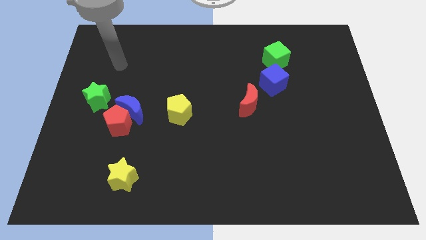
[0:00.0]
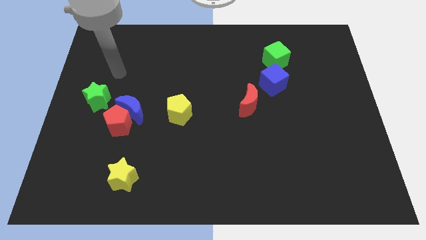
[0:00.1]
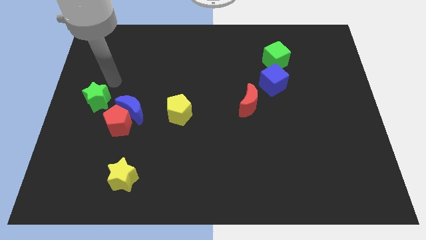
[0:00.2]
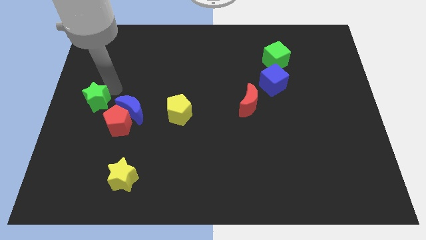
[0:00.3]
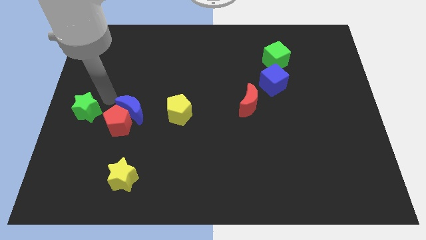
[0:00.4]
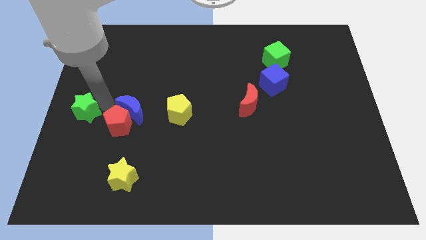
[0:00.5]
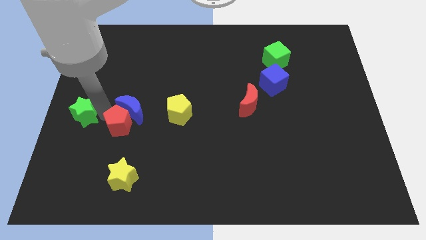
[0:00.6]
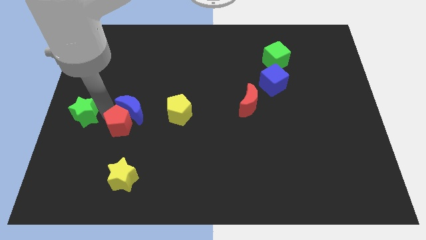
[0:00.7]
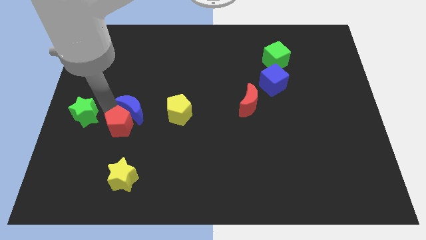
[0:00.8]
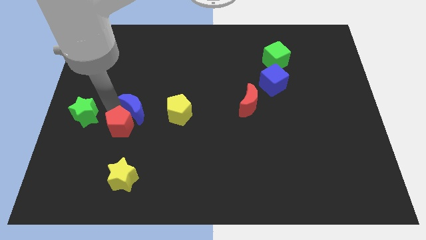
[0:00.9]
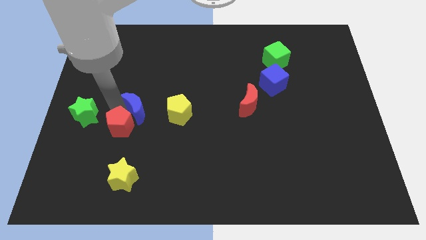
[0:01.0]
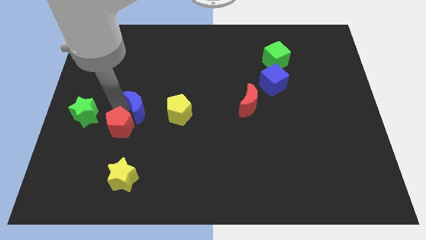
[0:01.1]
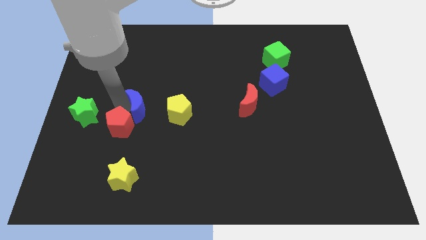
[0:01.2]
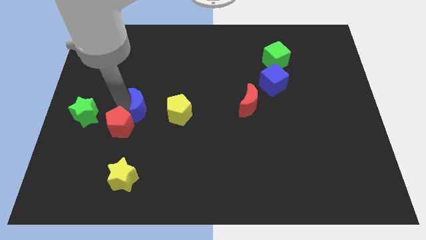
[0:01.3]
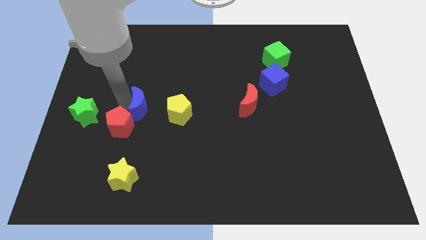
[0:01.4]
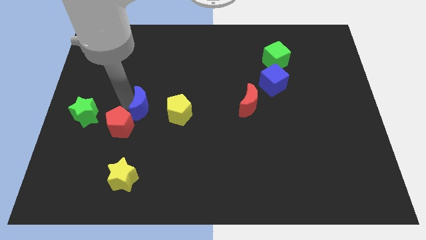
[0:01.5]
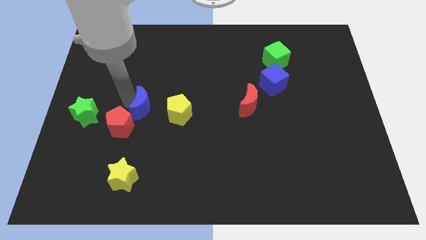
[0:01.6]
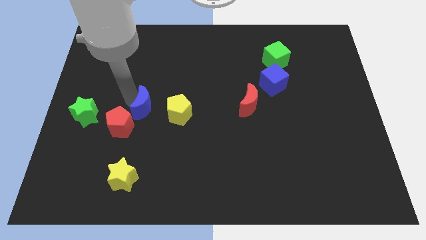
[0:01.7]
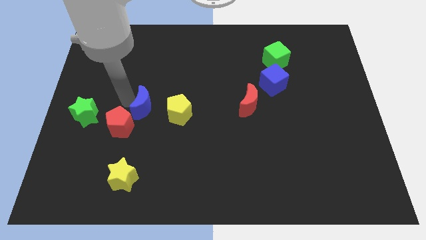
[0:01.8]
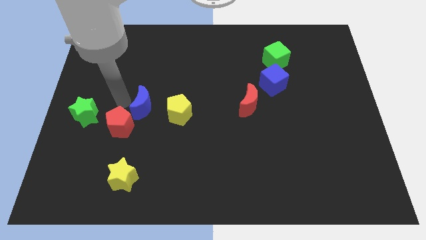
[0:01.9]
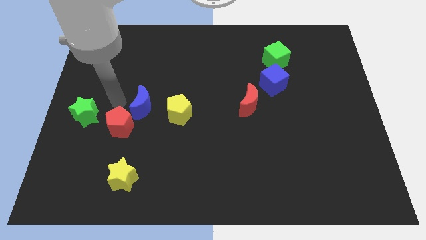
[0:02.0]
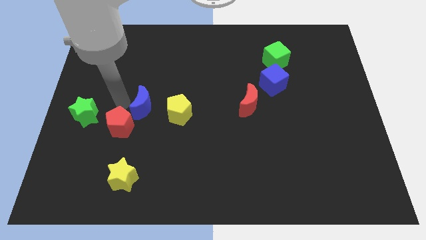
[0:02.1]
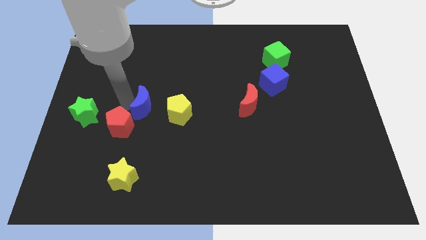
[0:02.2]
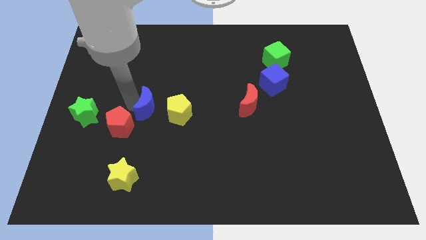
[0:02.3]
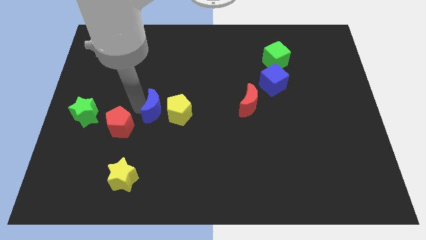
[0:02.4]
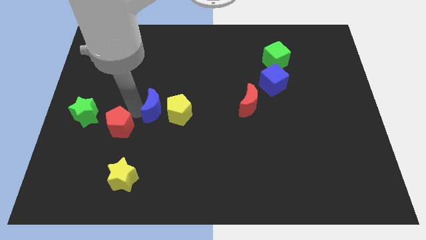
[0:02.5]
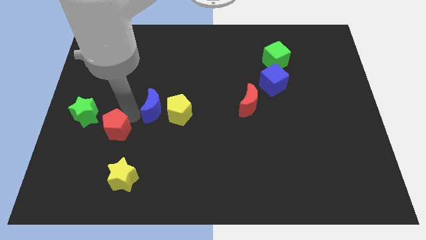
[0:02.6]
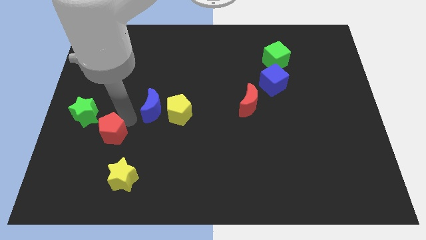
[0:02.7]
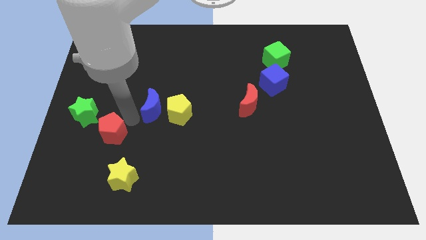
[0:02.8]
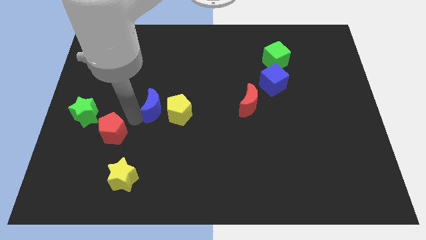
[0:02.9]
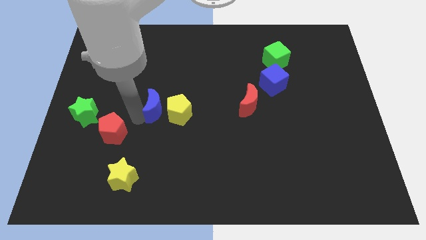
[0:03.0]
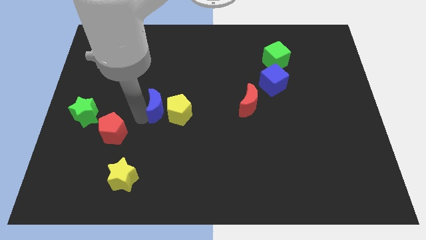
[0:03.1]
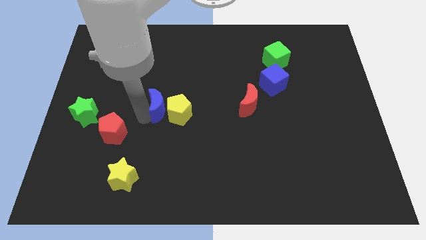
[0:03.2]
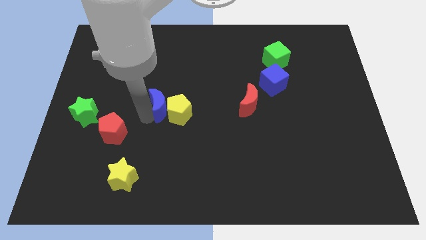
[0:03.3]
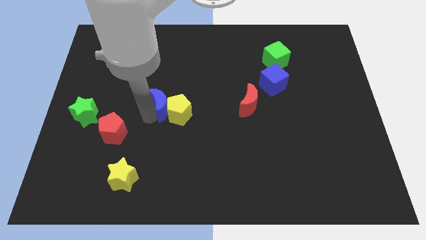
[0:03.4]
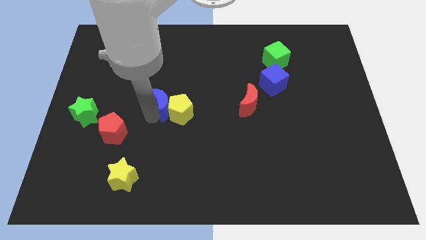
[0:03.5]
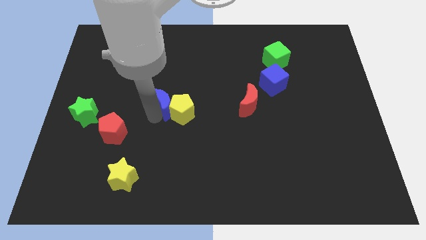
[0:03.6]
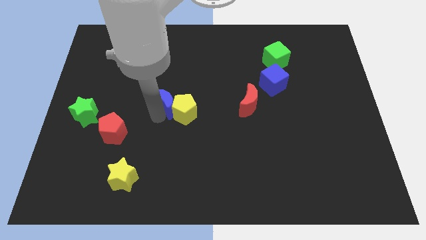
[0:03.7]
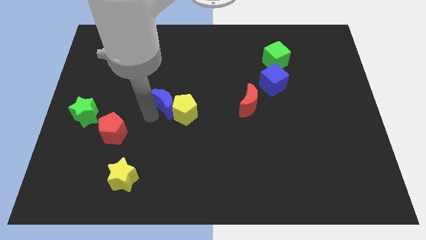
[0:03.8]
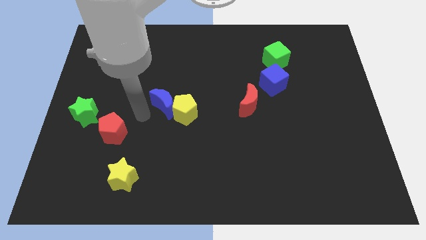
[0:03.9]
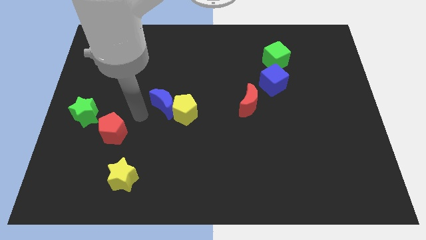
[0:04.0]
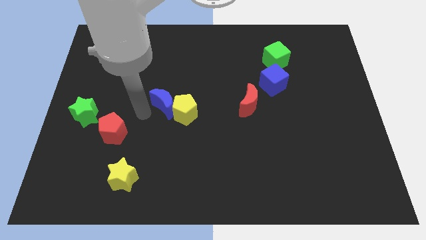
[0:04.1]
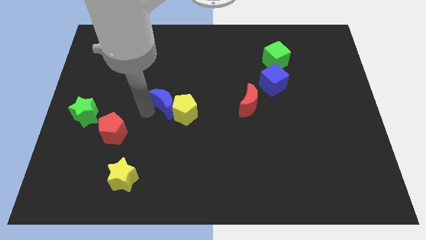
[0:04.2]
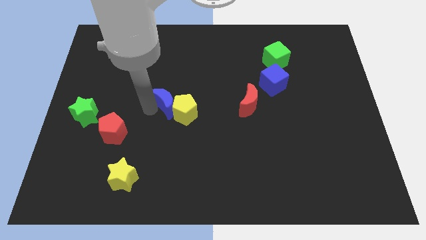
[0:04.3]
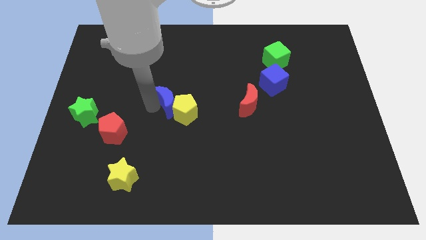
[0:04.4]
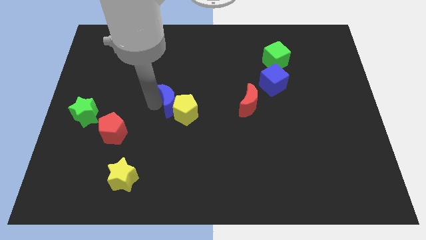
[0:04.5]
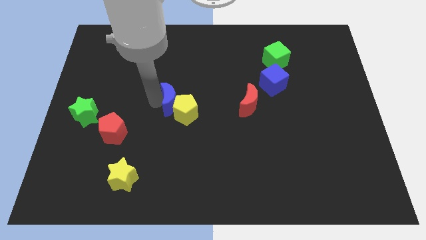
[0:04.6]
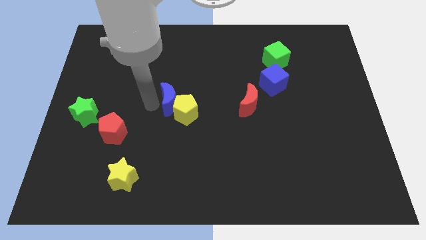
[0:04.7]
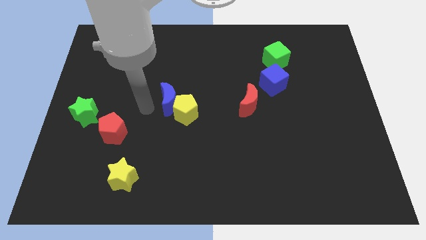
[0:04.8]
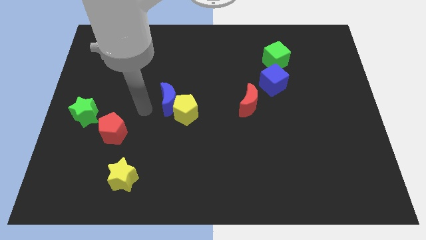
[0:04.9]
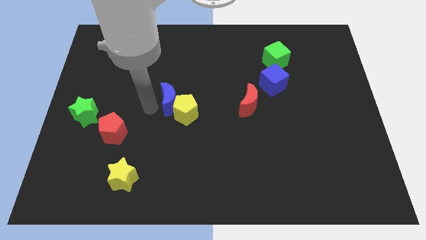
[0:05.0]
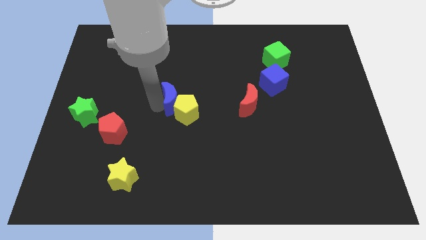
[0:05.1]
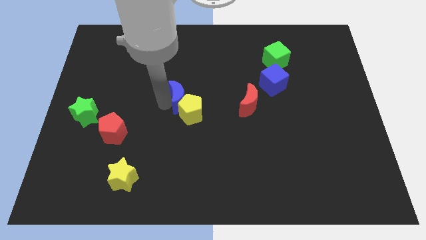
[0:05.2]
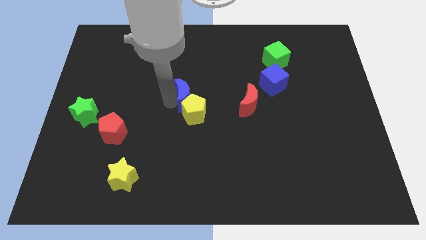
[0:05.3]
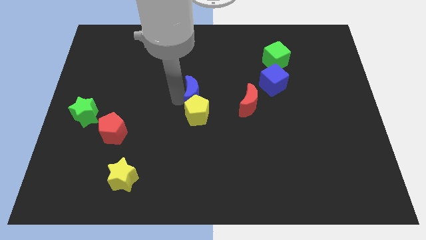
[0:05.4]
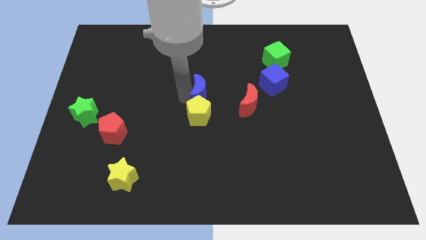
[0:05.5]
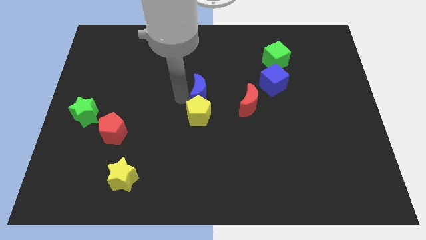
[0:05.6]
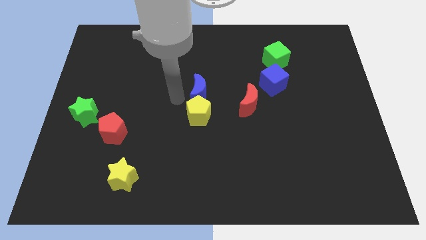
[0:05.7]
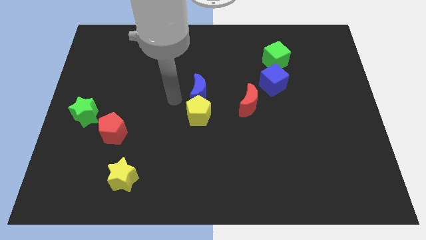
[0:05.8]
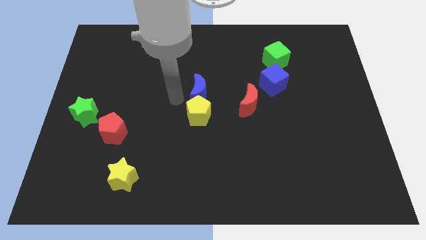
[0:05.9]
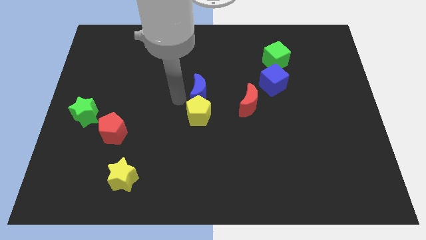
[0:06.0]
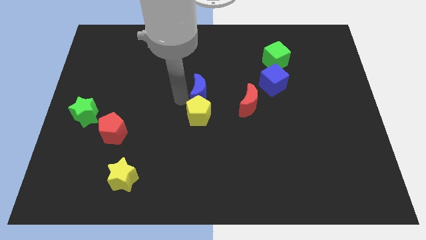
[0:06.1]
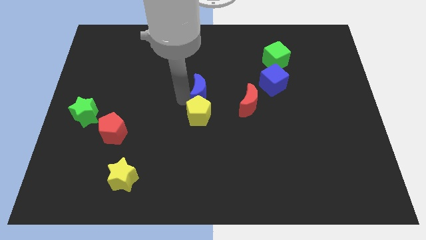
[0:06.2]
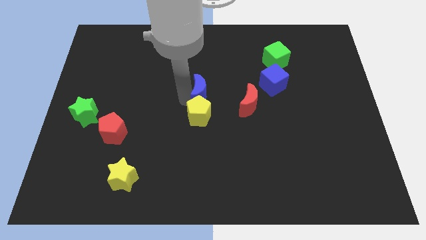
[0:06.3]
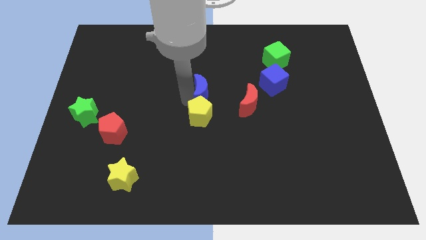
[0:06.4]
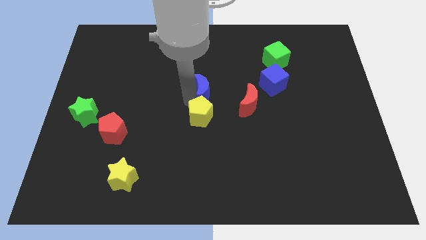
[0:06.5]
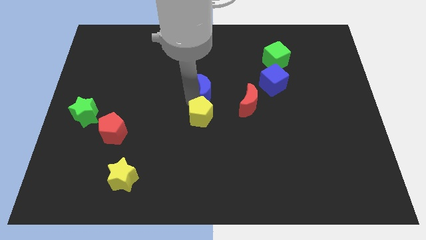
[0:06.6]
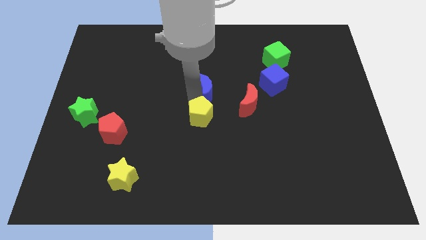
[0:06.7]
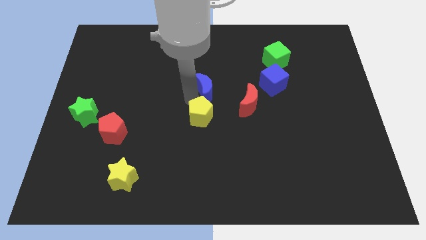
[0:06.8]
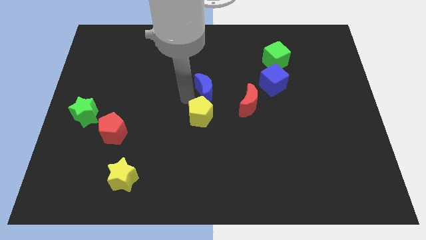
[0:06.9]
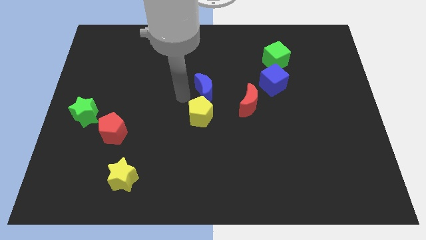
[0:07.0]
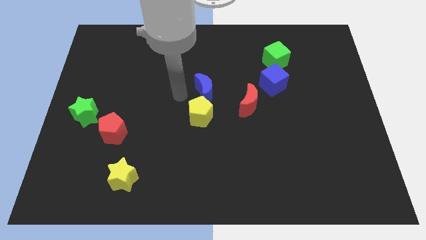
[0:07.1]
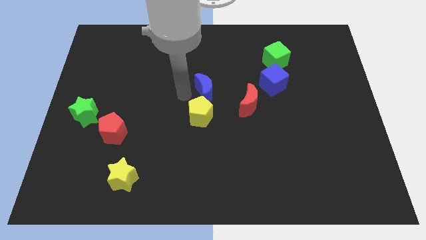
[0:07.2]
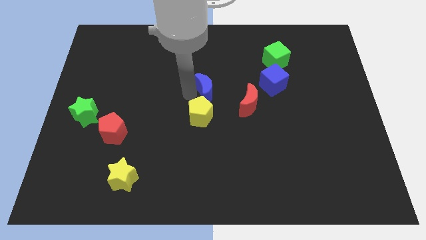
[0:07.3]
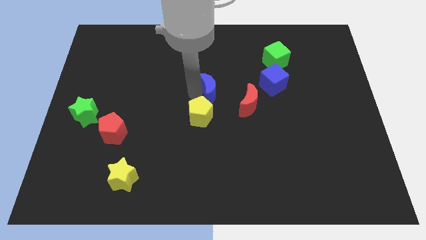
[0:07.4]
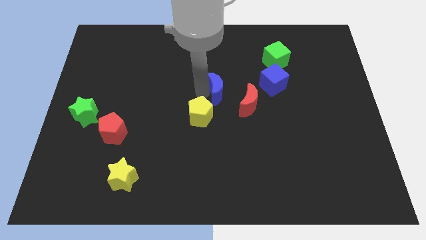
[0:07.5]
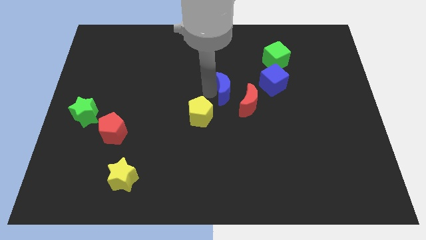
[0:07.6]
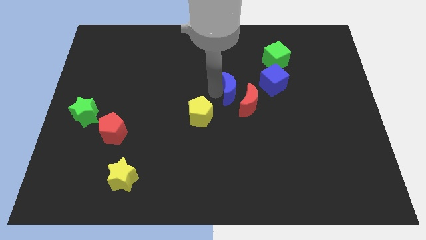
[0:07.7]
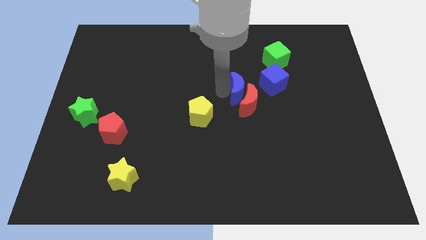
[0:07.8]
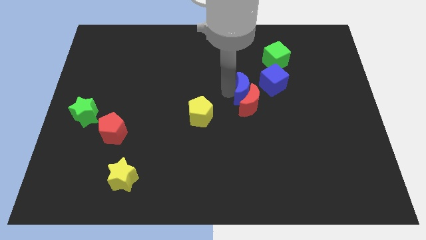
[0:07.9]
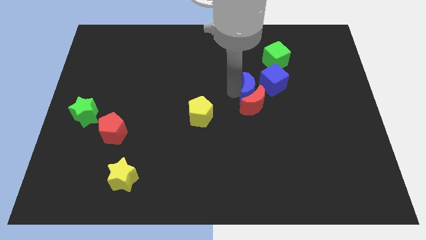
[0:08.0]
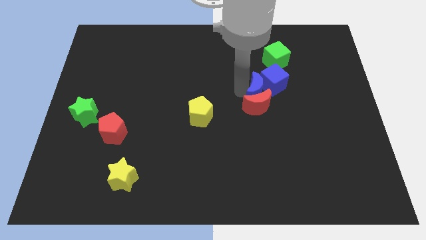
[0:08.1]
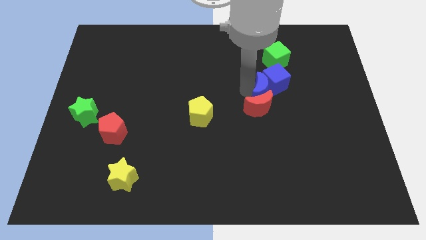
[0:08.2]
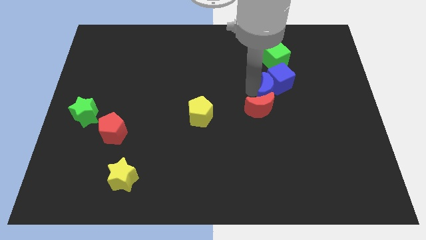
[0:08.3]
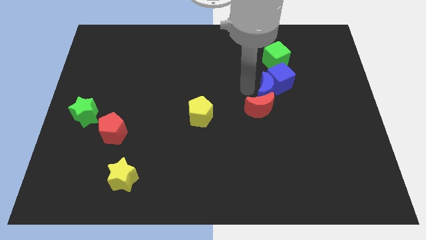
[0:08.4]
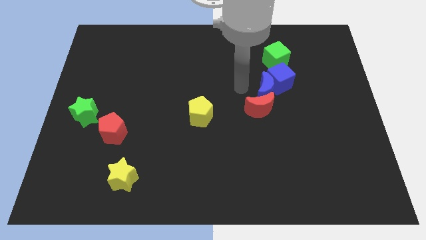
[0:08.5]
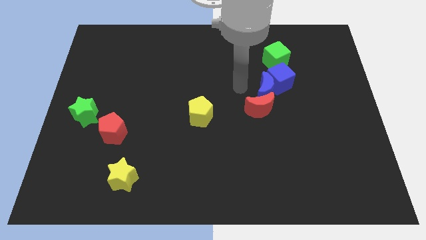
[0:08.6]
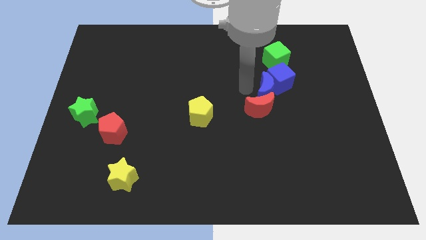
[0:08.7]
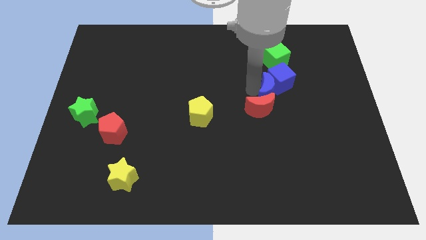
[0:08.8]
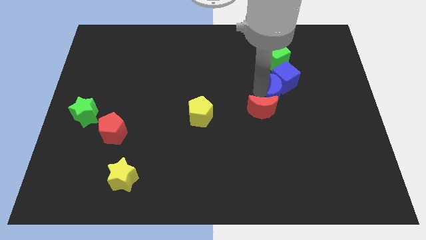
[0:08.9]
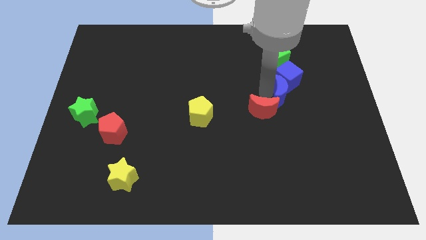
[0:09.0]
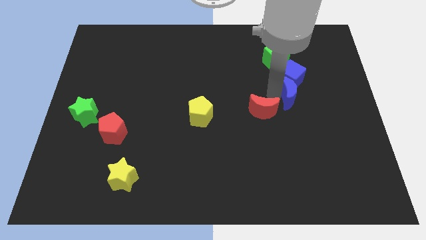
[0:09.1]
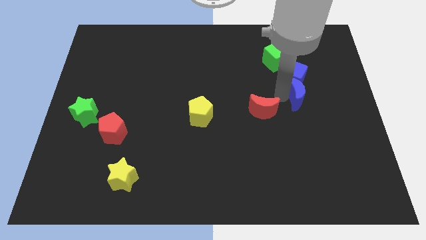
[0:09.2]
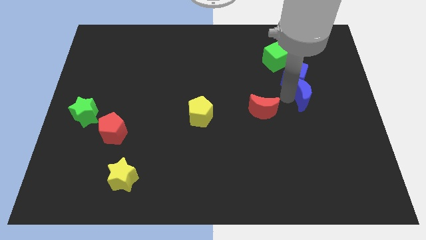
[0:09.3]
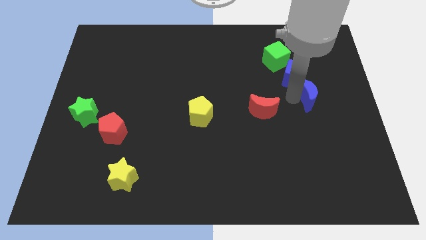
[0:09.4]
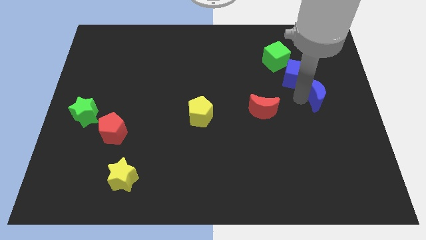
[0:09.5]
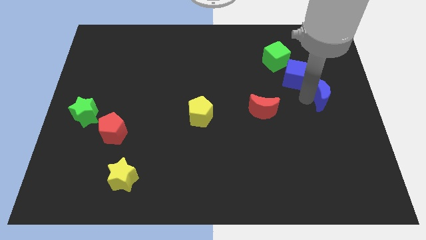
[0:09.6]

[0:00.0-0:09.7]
push the blue moon to the center right
